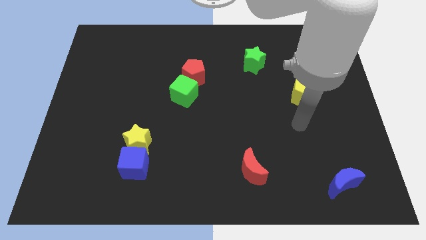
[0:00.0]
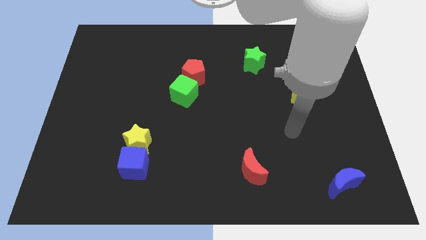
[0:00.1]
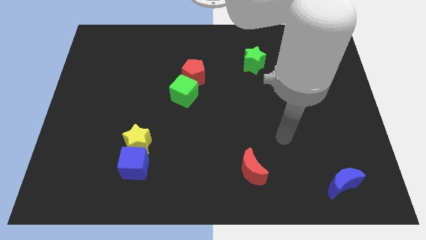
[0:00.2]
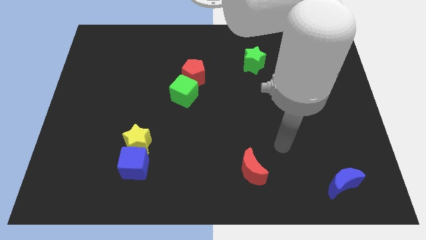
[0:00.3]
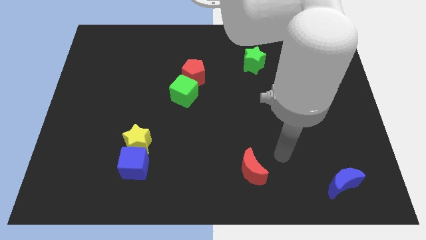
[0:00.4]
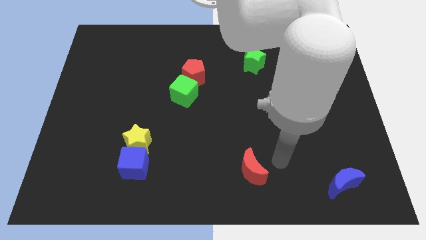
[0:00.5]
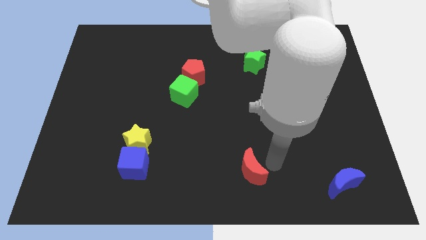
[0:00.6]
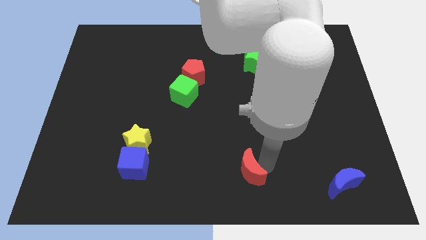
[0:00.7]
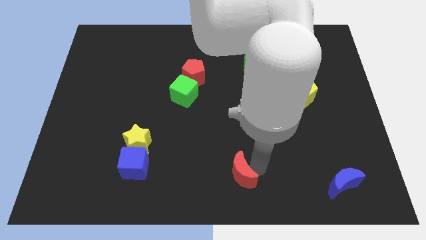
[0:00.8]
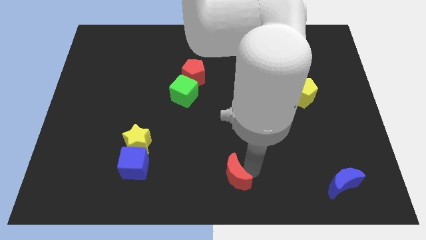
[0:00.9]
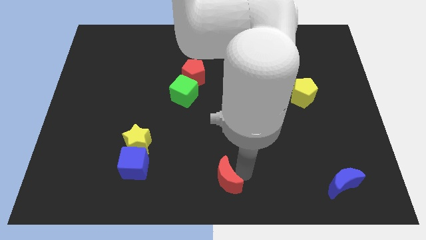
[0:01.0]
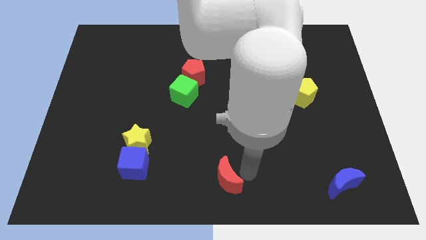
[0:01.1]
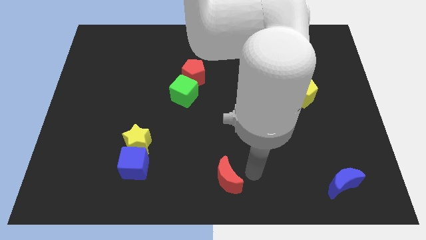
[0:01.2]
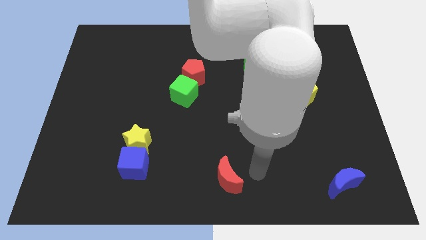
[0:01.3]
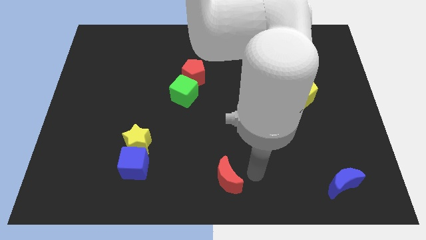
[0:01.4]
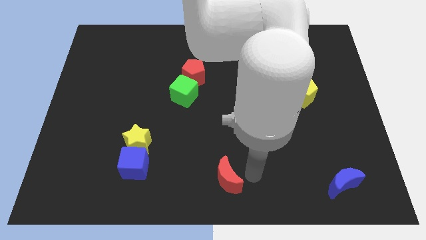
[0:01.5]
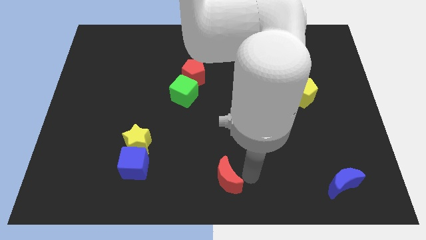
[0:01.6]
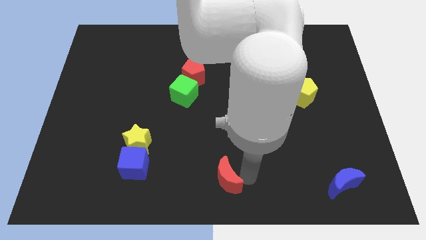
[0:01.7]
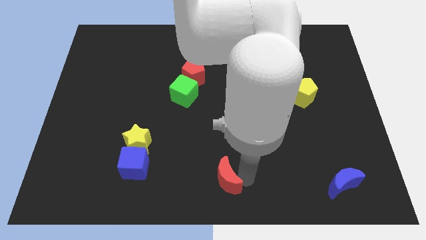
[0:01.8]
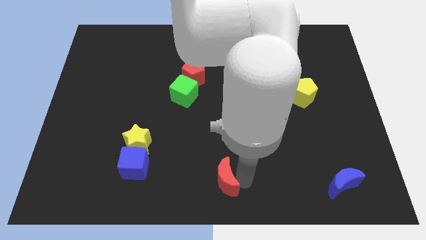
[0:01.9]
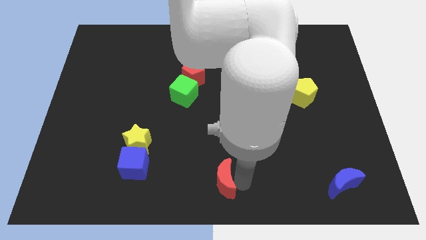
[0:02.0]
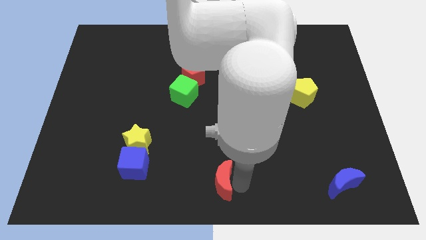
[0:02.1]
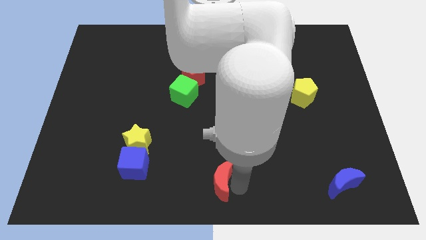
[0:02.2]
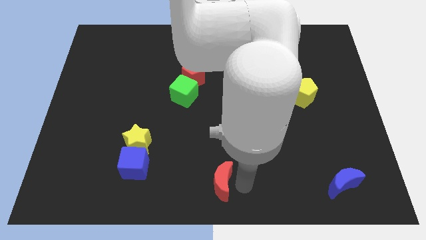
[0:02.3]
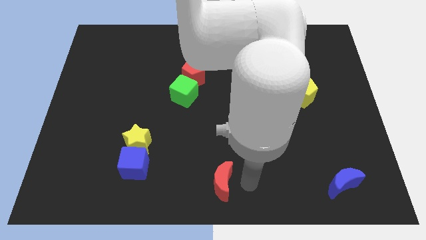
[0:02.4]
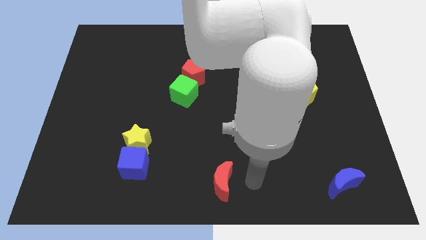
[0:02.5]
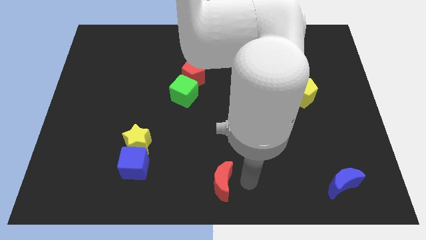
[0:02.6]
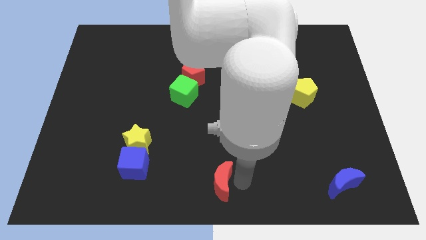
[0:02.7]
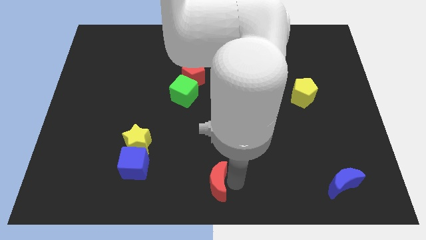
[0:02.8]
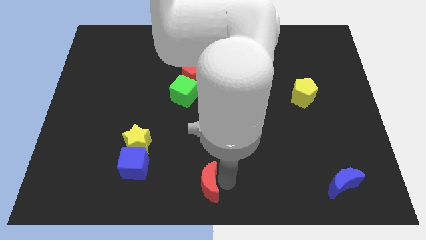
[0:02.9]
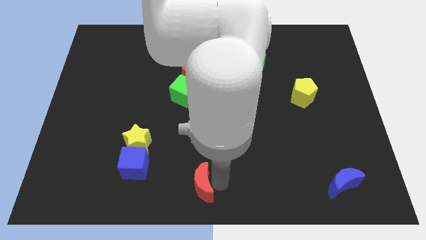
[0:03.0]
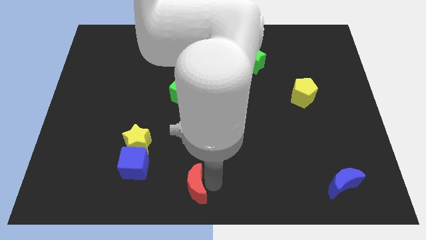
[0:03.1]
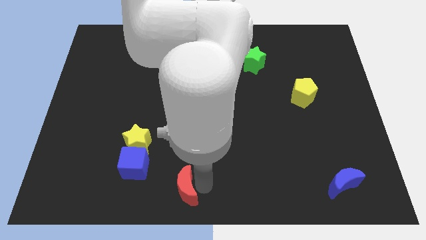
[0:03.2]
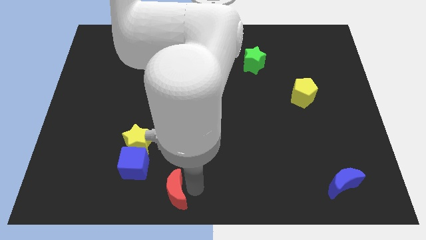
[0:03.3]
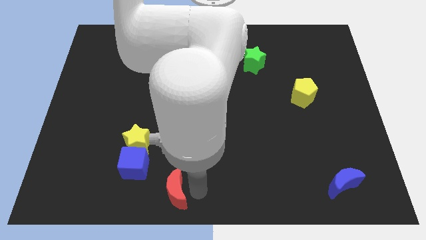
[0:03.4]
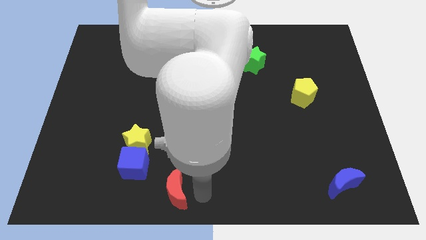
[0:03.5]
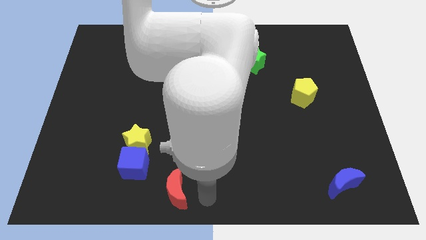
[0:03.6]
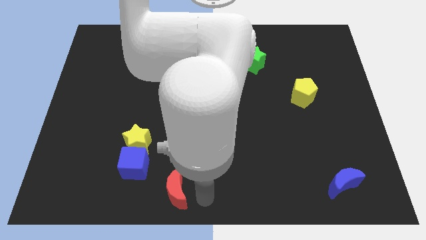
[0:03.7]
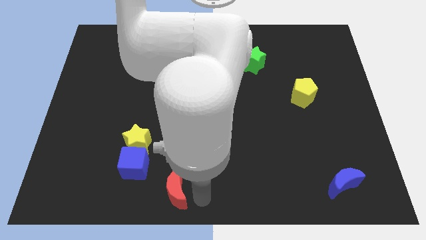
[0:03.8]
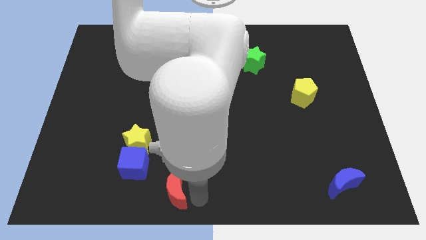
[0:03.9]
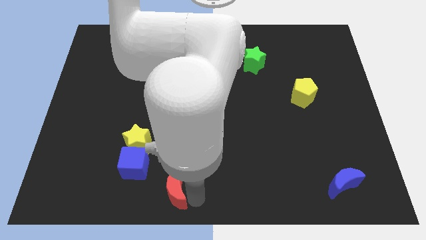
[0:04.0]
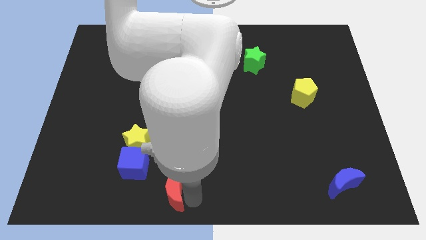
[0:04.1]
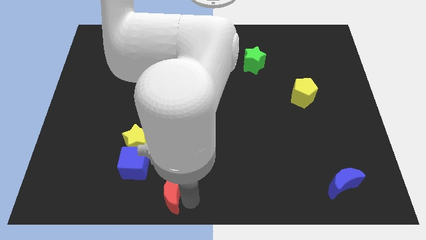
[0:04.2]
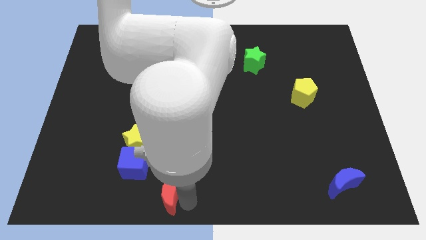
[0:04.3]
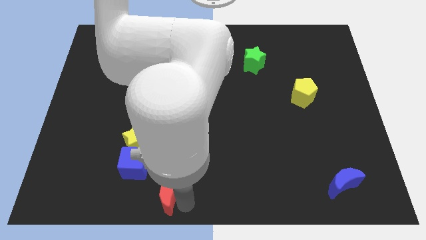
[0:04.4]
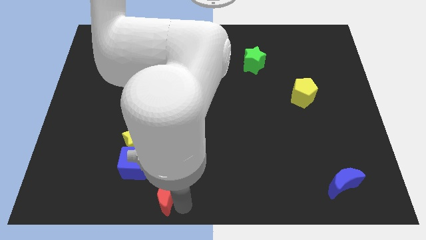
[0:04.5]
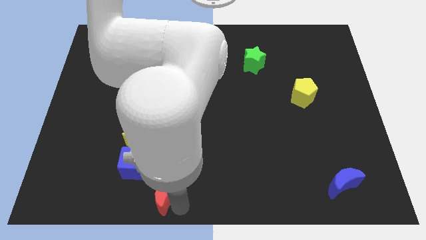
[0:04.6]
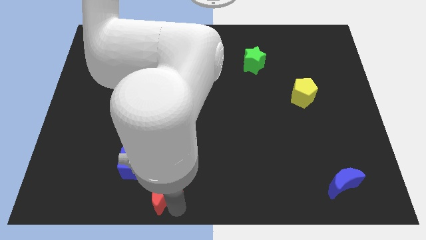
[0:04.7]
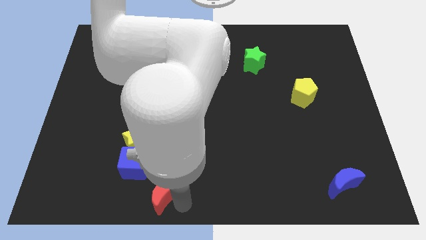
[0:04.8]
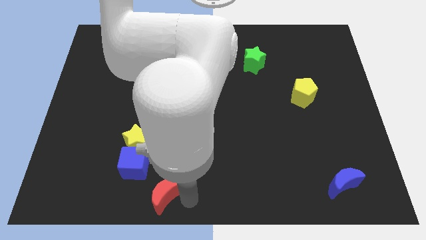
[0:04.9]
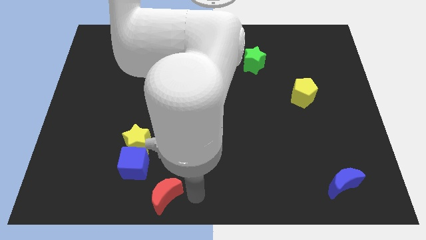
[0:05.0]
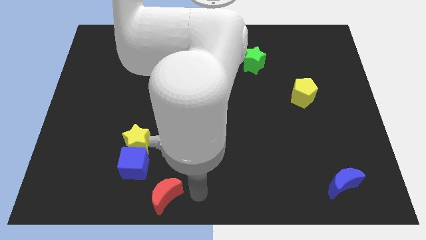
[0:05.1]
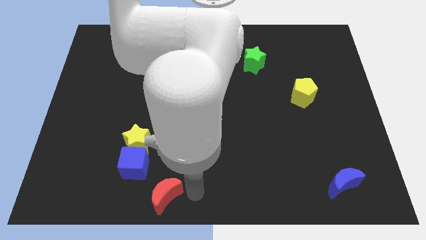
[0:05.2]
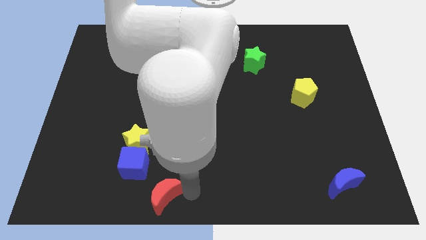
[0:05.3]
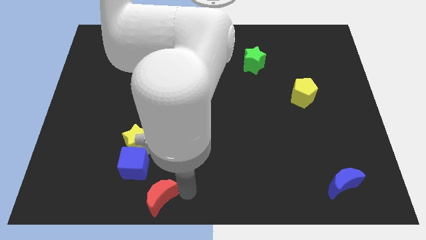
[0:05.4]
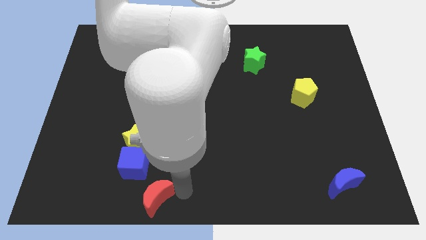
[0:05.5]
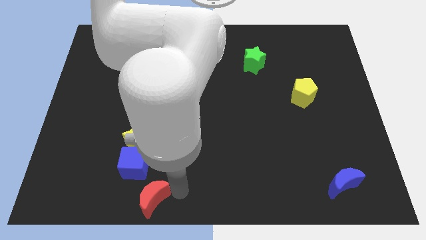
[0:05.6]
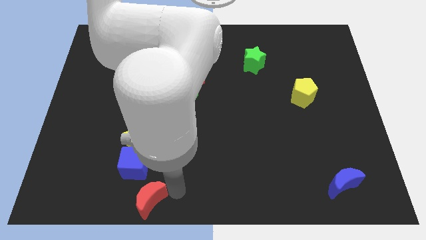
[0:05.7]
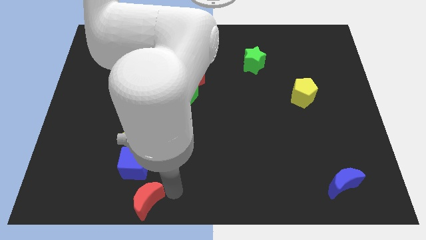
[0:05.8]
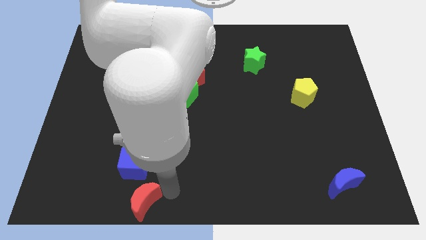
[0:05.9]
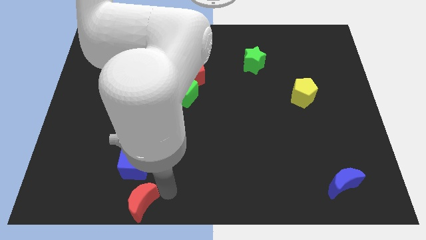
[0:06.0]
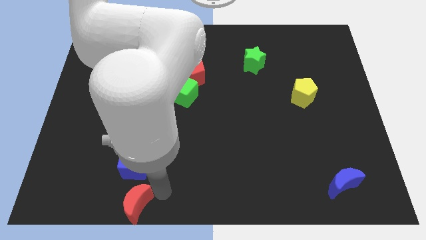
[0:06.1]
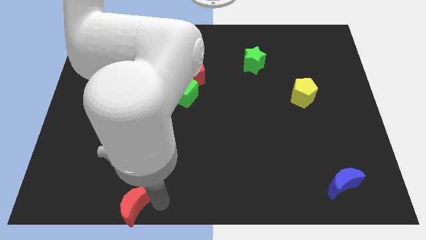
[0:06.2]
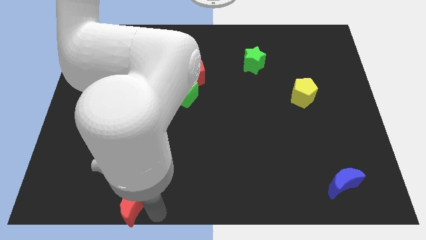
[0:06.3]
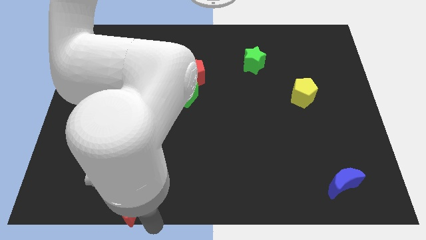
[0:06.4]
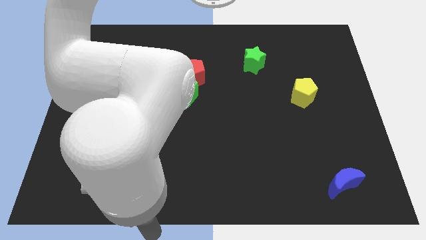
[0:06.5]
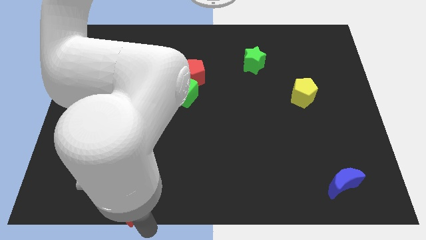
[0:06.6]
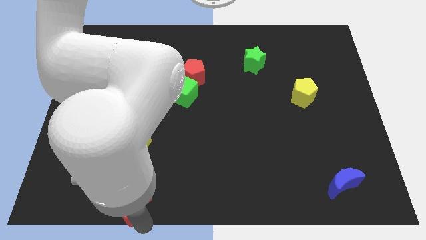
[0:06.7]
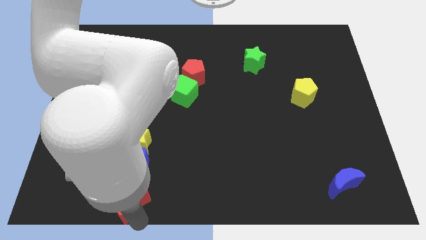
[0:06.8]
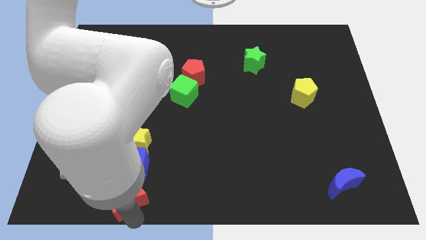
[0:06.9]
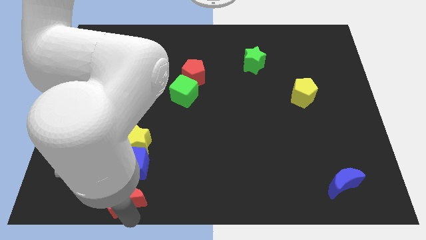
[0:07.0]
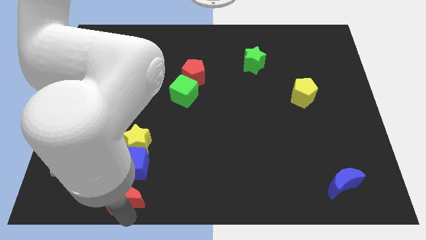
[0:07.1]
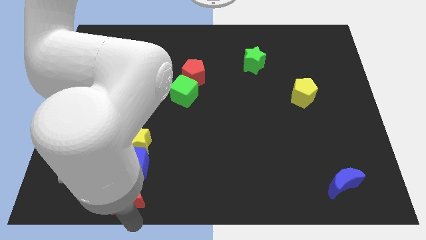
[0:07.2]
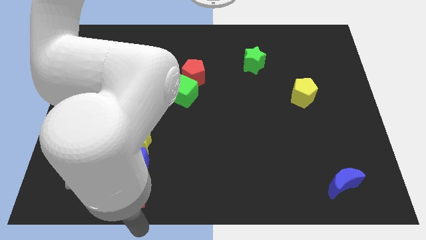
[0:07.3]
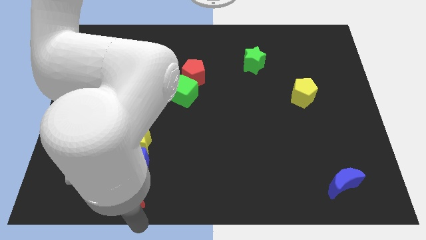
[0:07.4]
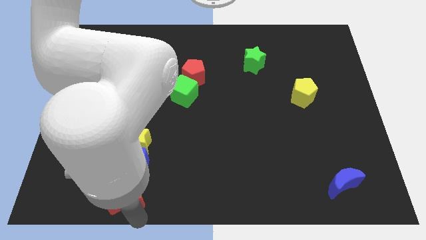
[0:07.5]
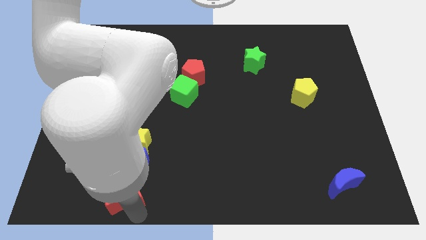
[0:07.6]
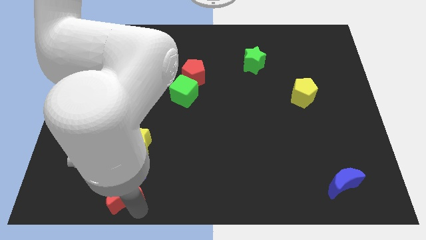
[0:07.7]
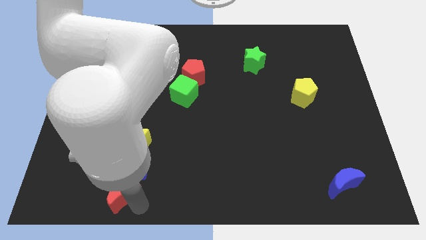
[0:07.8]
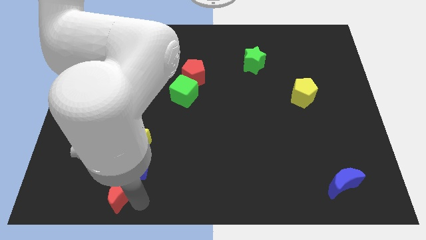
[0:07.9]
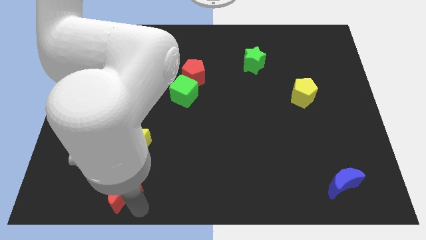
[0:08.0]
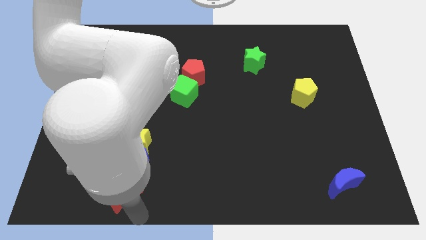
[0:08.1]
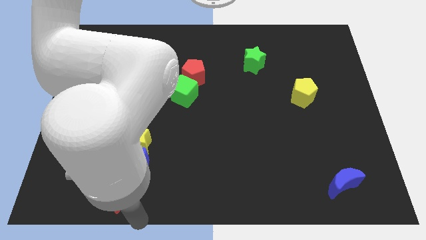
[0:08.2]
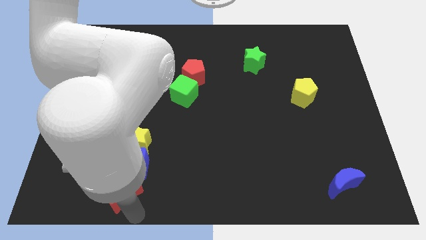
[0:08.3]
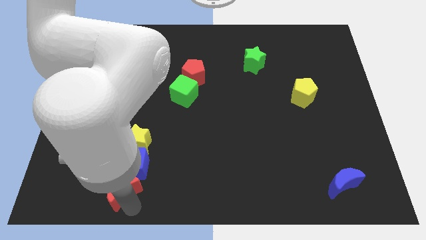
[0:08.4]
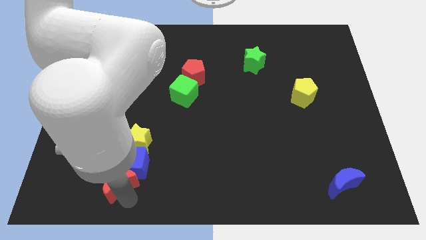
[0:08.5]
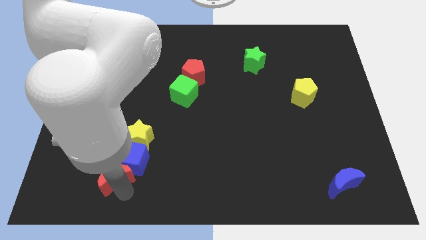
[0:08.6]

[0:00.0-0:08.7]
move the red moon to the bottom left side of the yellow star
